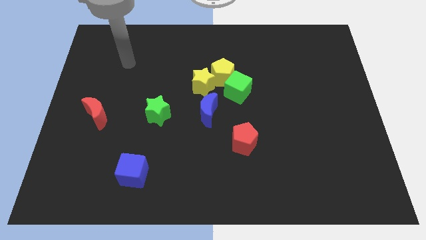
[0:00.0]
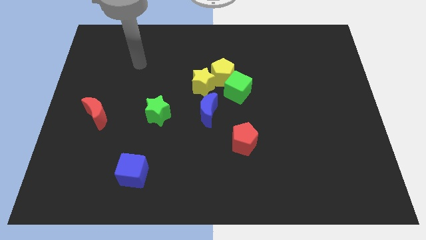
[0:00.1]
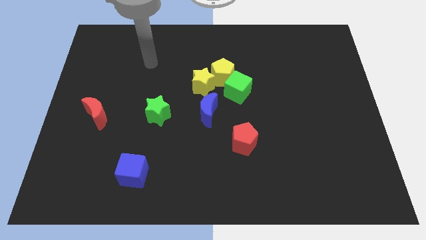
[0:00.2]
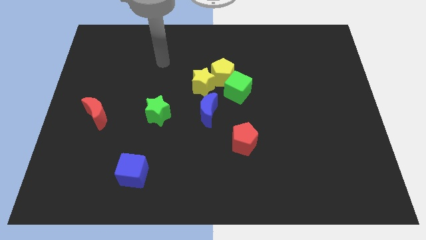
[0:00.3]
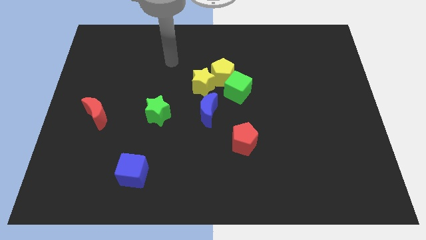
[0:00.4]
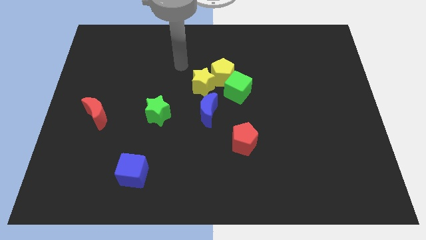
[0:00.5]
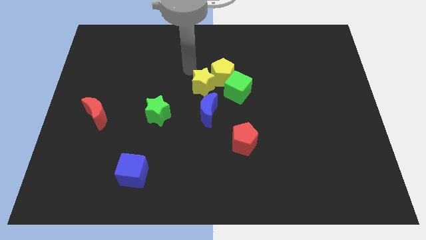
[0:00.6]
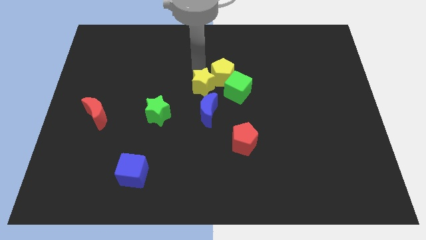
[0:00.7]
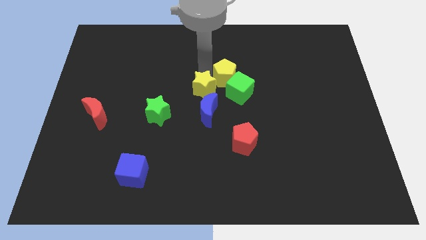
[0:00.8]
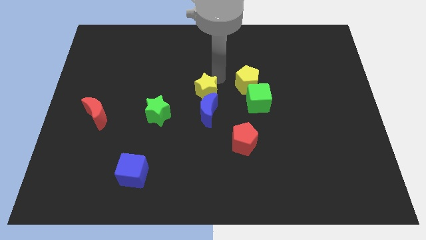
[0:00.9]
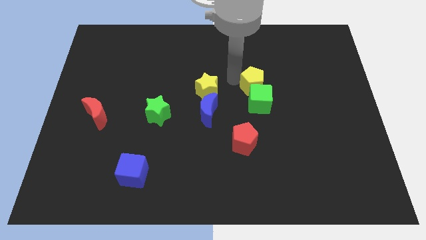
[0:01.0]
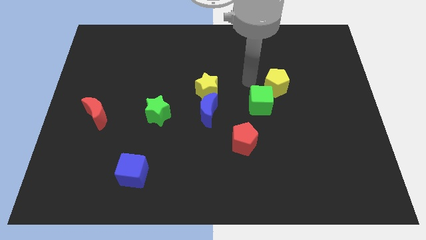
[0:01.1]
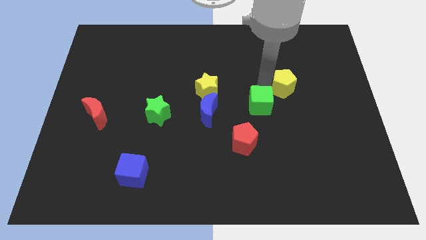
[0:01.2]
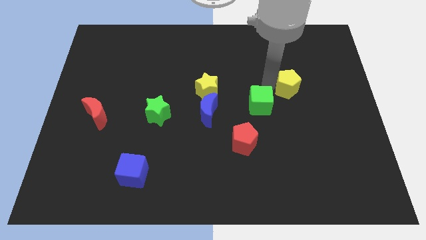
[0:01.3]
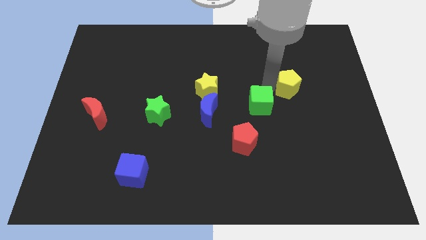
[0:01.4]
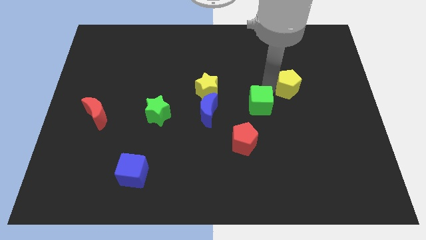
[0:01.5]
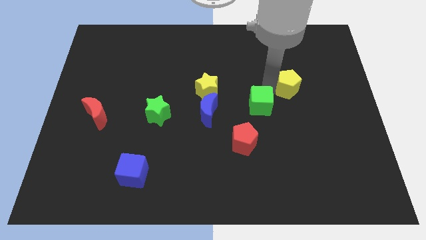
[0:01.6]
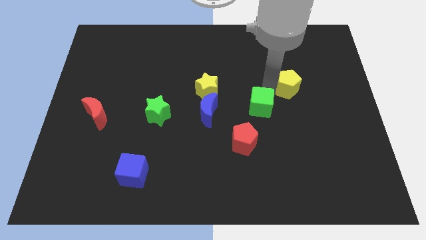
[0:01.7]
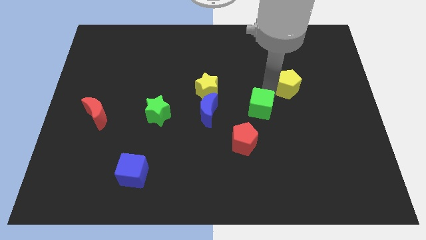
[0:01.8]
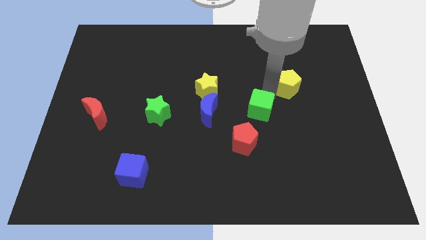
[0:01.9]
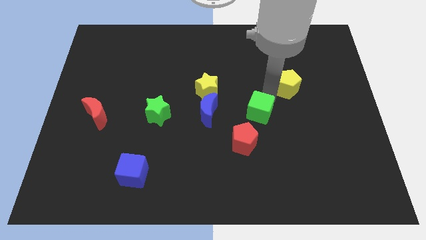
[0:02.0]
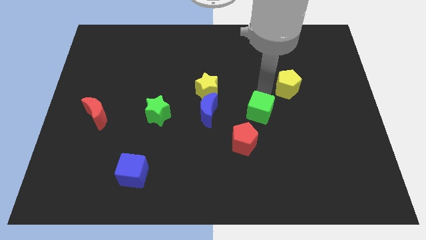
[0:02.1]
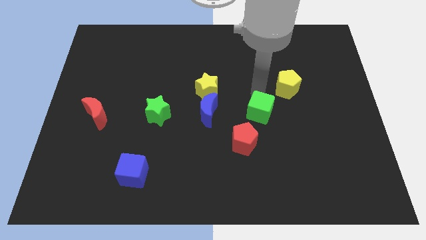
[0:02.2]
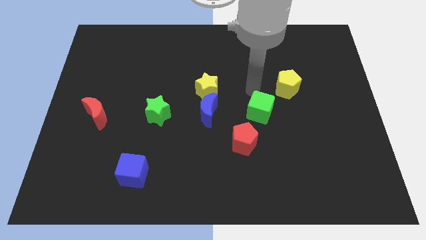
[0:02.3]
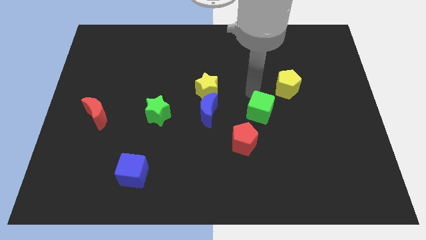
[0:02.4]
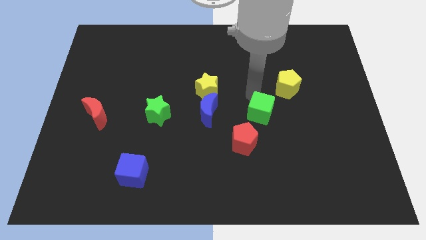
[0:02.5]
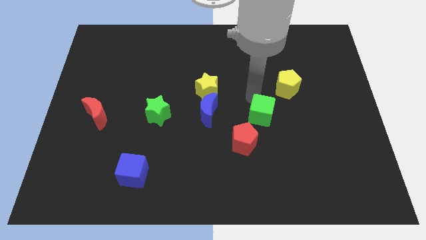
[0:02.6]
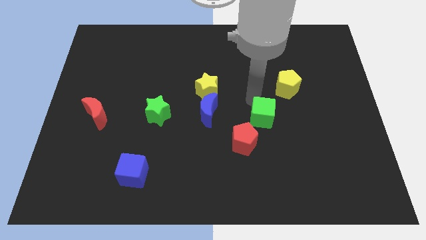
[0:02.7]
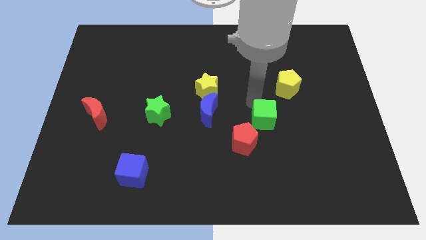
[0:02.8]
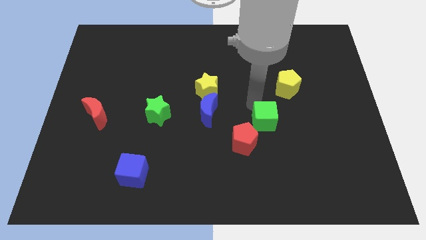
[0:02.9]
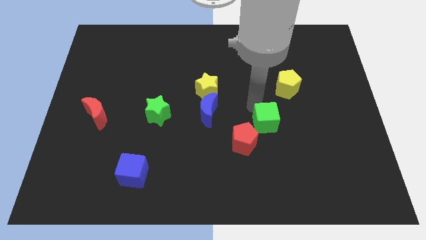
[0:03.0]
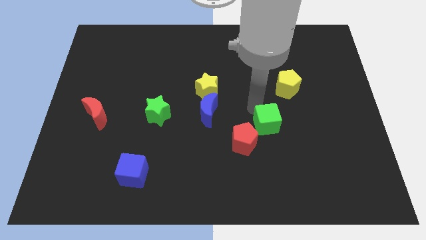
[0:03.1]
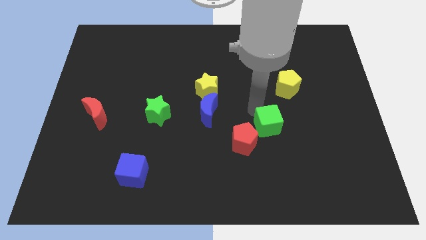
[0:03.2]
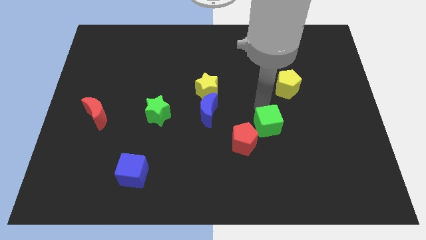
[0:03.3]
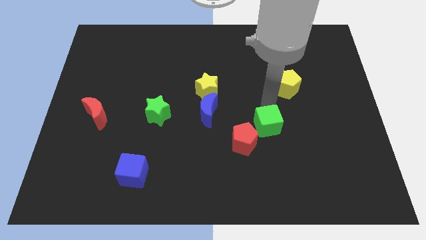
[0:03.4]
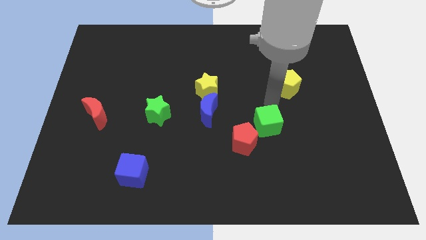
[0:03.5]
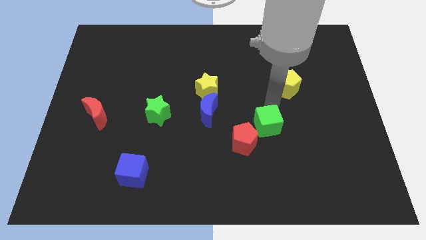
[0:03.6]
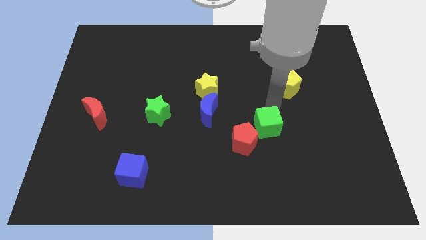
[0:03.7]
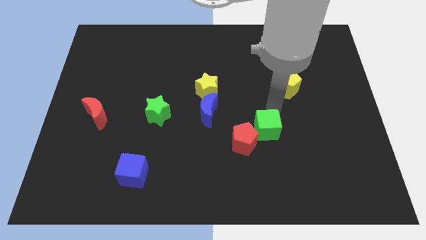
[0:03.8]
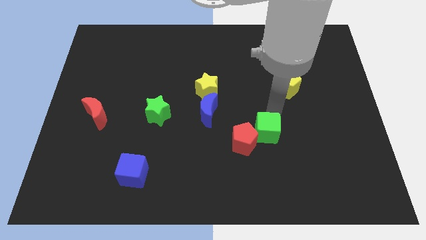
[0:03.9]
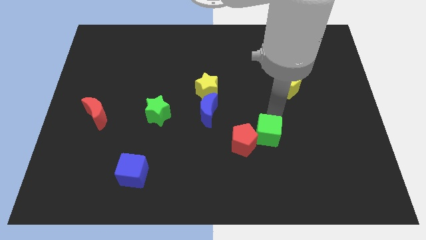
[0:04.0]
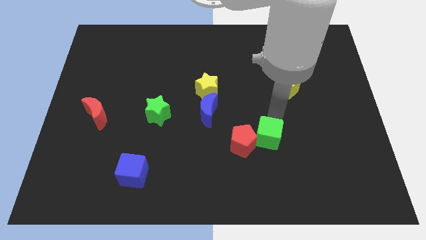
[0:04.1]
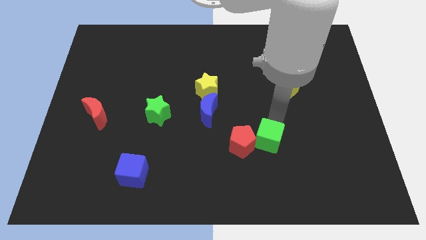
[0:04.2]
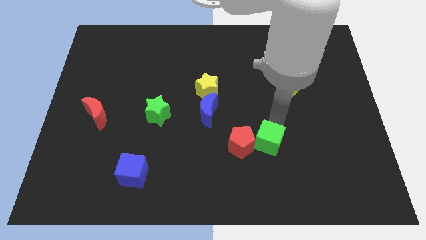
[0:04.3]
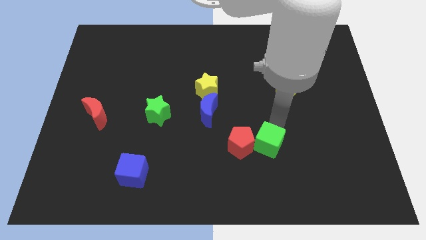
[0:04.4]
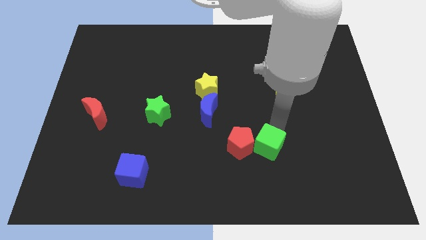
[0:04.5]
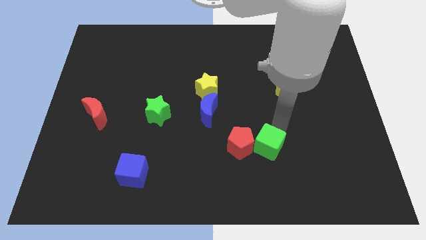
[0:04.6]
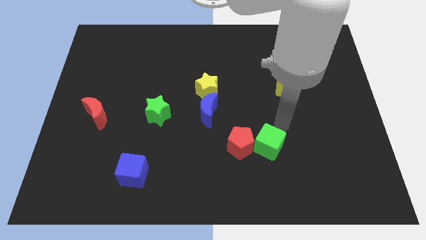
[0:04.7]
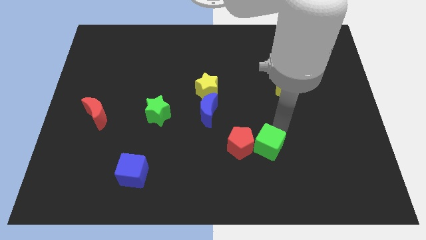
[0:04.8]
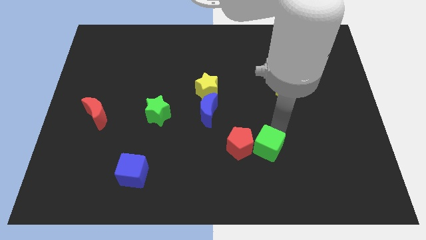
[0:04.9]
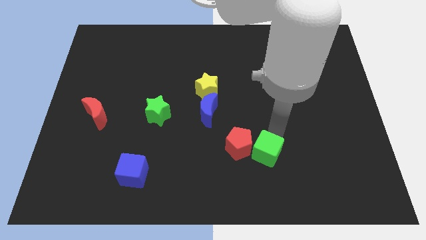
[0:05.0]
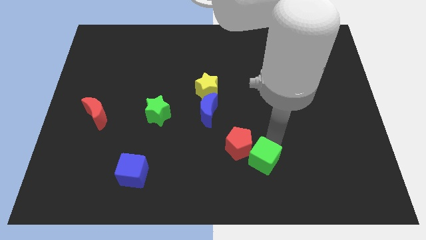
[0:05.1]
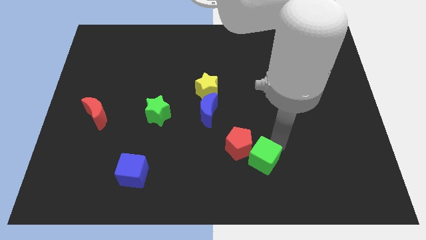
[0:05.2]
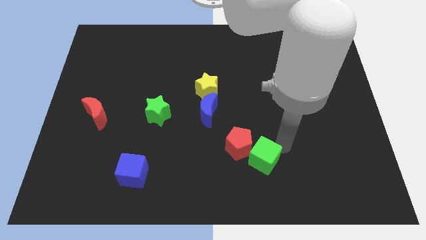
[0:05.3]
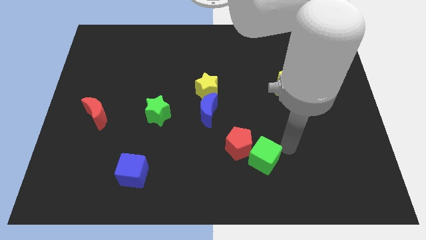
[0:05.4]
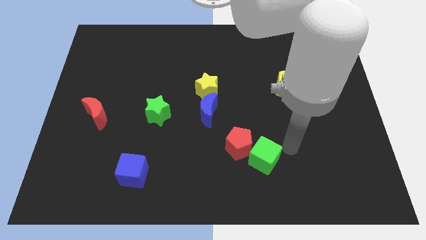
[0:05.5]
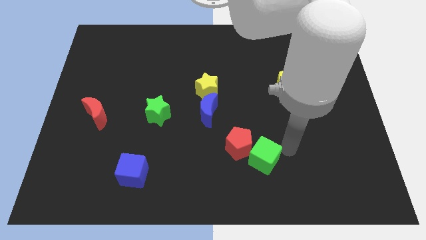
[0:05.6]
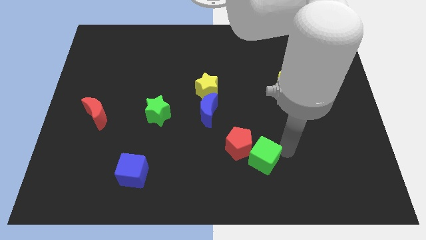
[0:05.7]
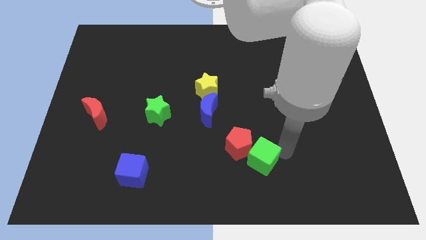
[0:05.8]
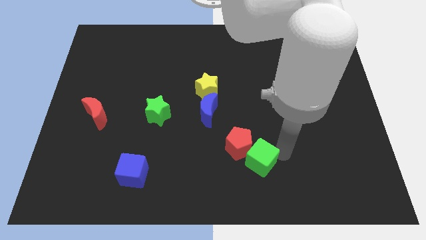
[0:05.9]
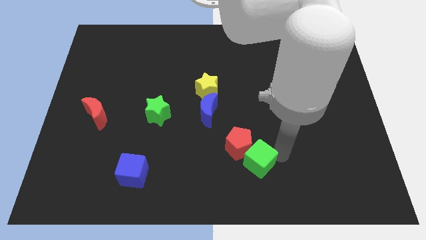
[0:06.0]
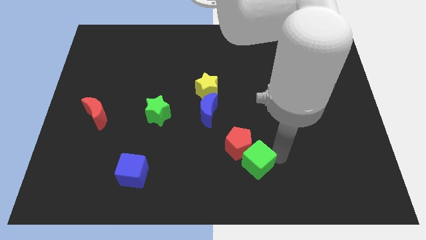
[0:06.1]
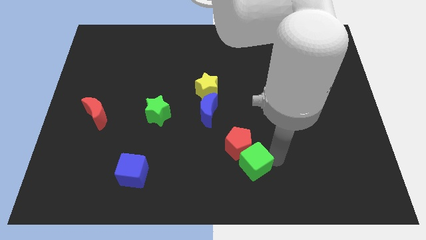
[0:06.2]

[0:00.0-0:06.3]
slide the green cube to the bottom

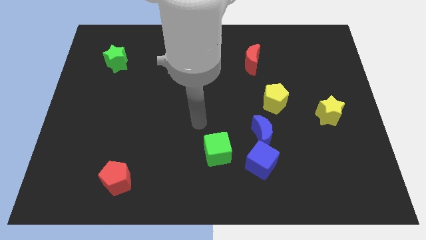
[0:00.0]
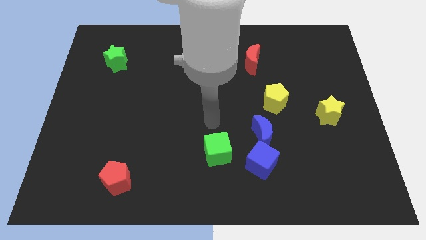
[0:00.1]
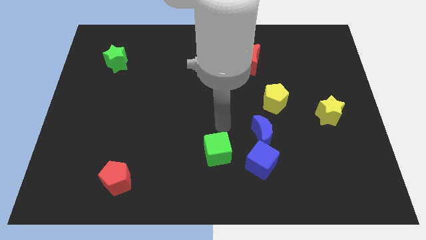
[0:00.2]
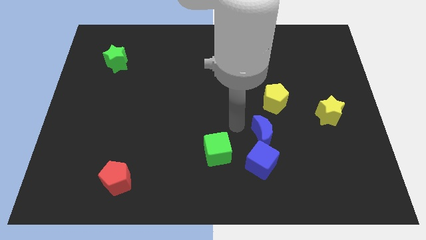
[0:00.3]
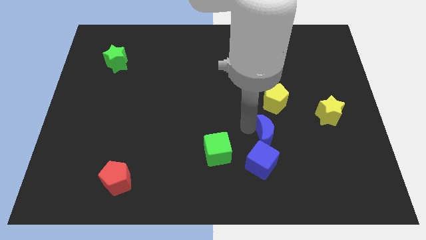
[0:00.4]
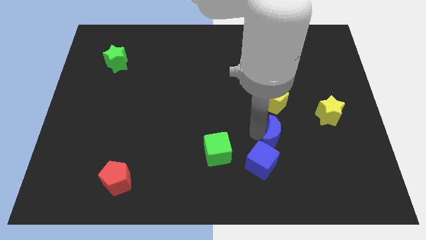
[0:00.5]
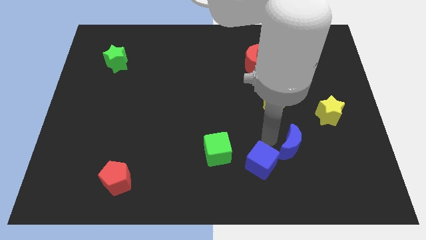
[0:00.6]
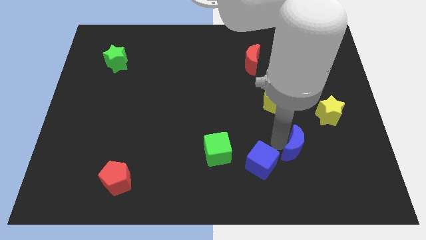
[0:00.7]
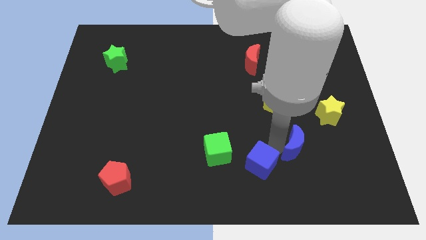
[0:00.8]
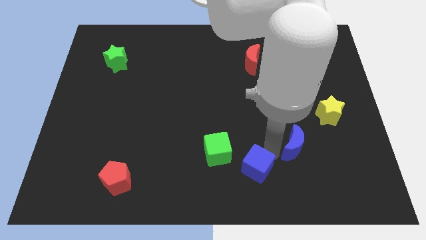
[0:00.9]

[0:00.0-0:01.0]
push the blue cube to the bottom side
